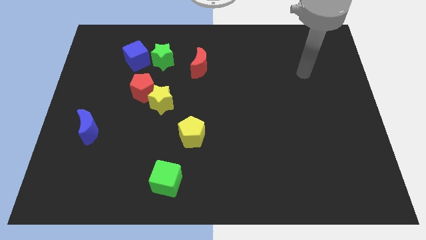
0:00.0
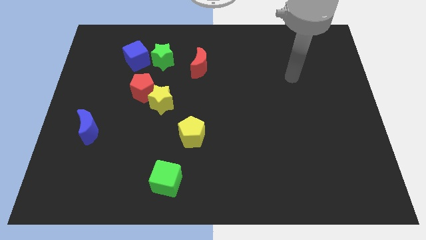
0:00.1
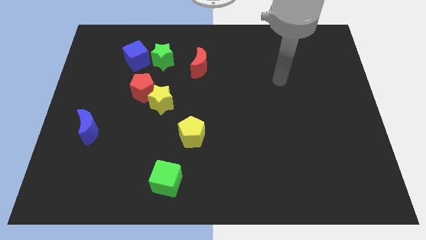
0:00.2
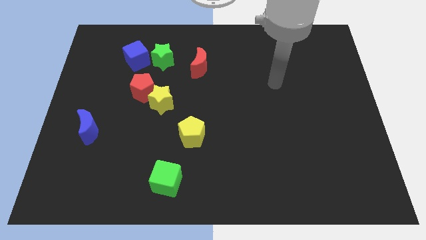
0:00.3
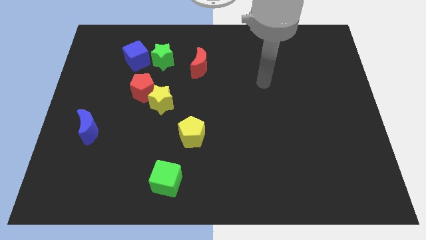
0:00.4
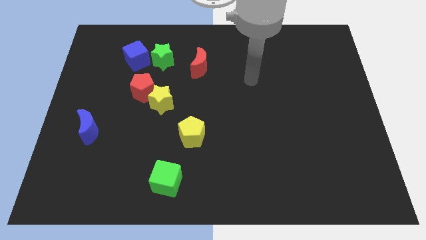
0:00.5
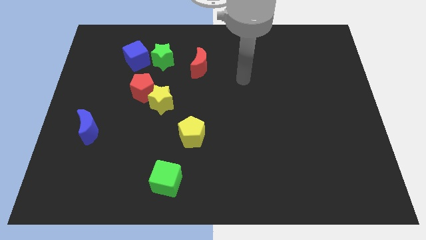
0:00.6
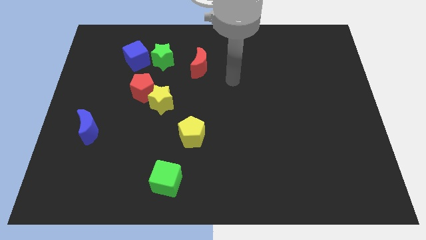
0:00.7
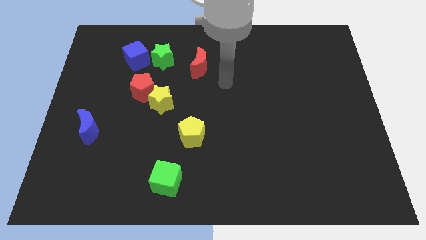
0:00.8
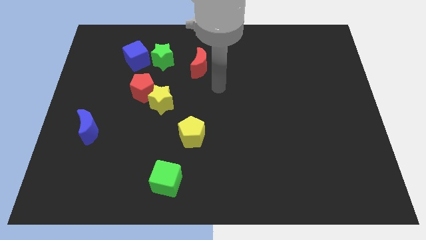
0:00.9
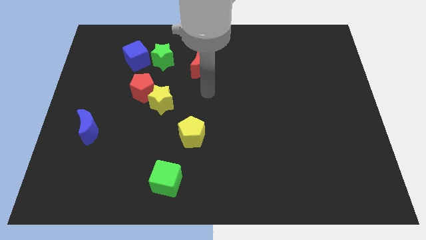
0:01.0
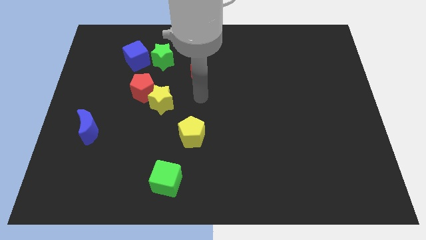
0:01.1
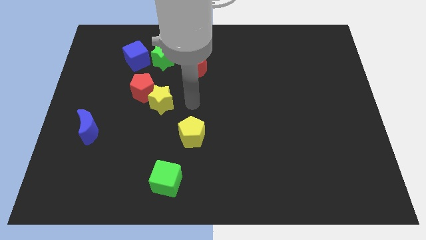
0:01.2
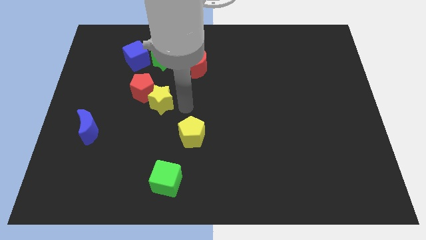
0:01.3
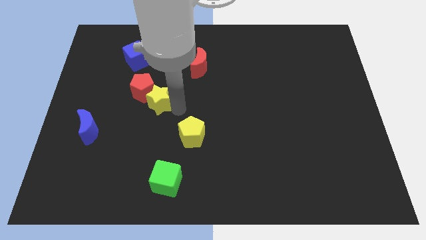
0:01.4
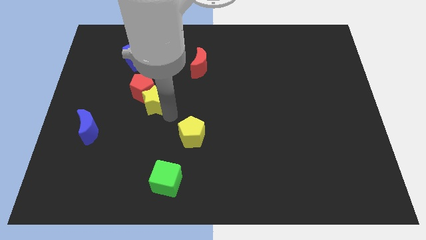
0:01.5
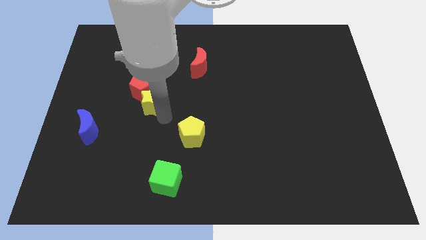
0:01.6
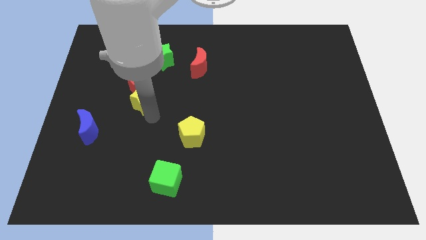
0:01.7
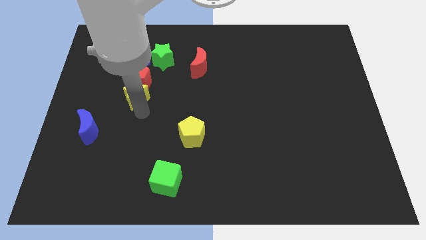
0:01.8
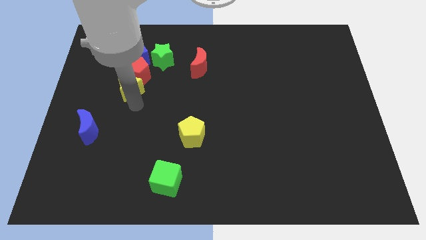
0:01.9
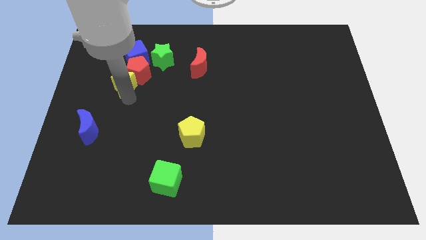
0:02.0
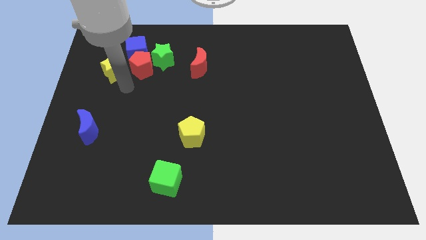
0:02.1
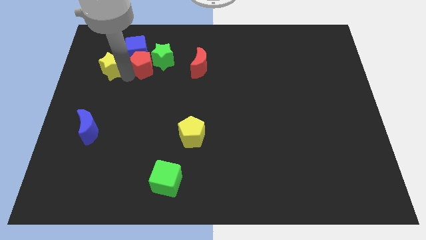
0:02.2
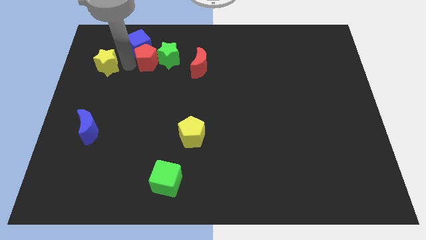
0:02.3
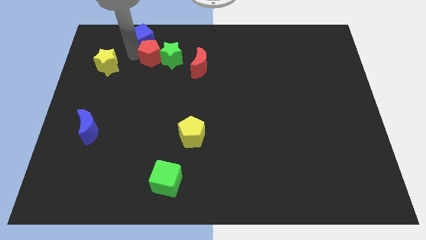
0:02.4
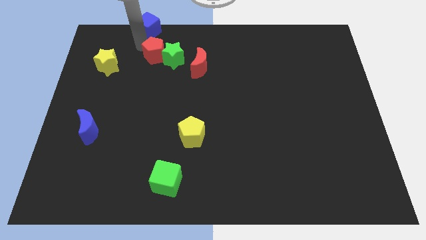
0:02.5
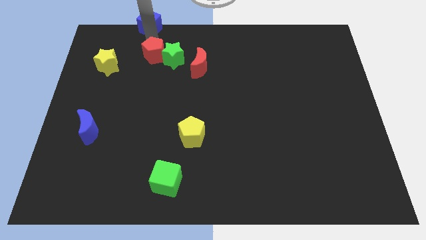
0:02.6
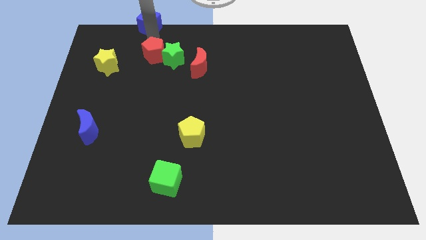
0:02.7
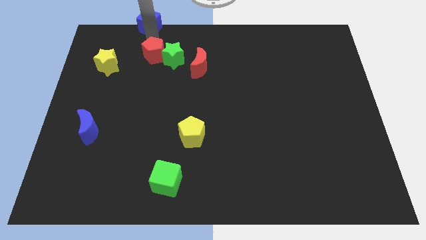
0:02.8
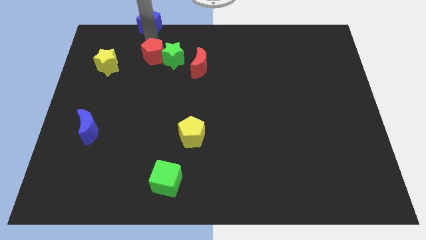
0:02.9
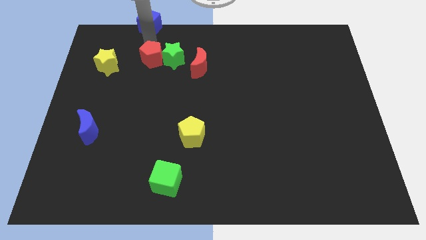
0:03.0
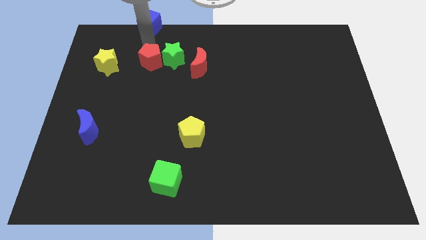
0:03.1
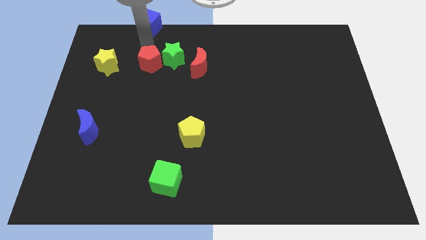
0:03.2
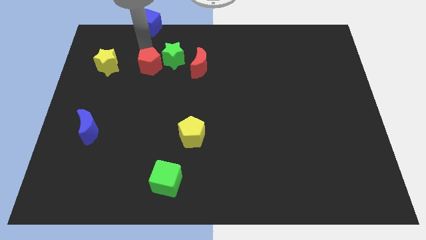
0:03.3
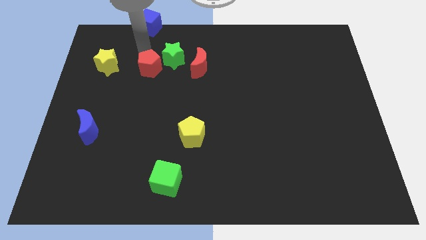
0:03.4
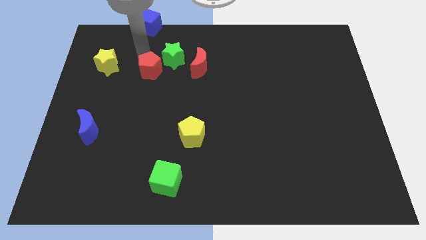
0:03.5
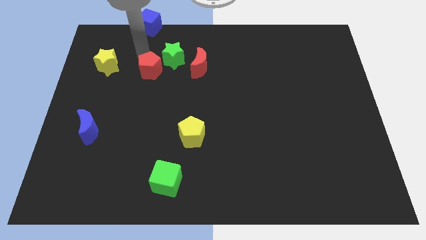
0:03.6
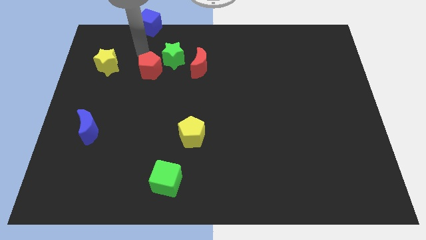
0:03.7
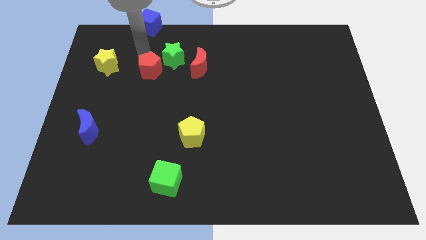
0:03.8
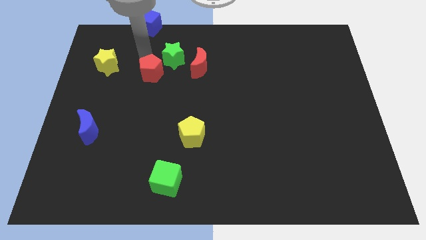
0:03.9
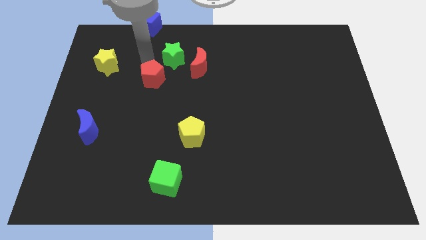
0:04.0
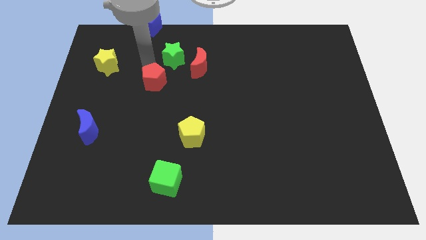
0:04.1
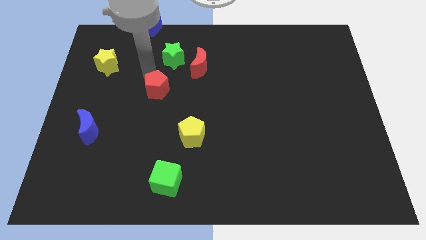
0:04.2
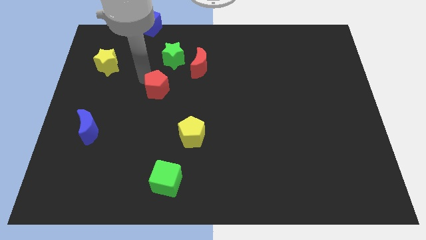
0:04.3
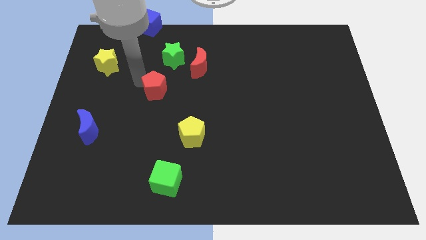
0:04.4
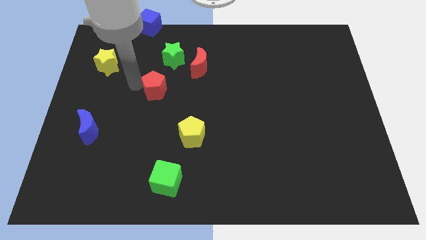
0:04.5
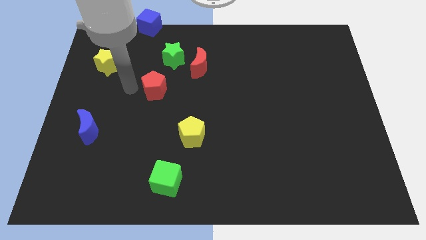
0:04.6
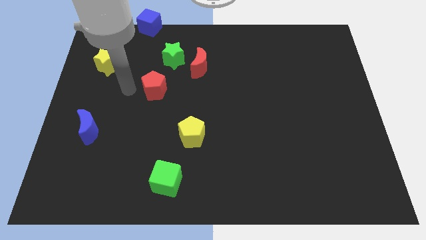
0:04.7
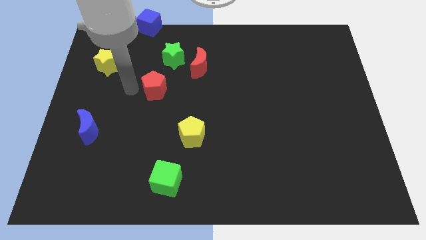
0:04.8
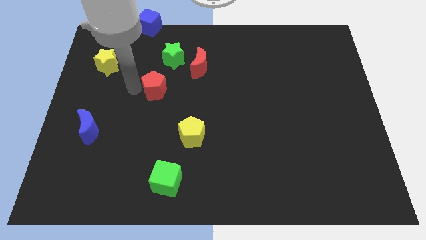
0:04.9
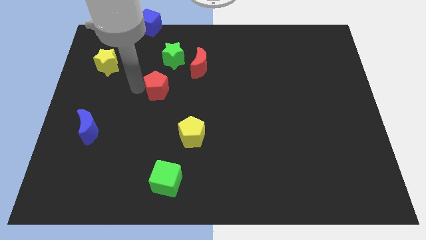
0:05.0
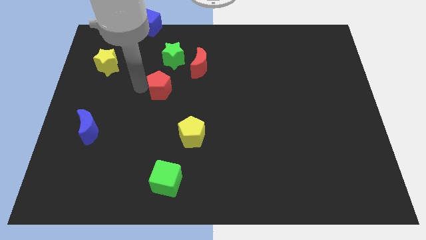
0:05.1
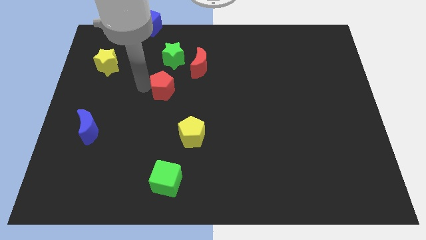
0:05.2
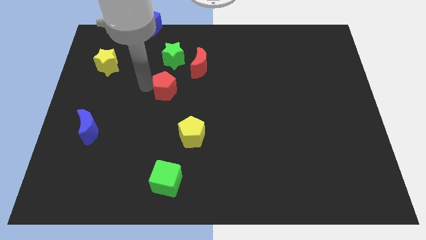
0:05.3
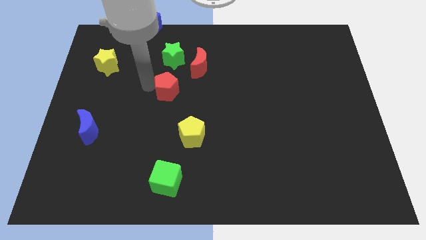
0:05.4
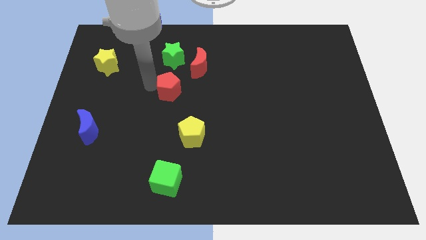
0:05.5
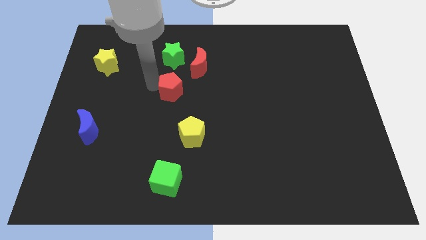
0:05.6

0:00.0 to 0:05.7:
slide the red pentagon to the right a bit

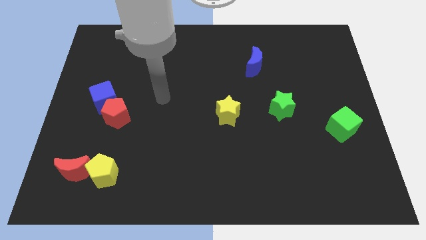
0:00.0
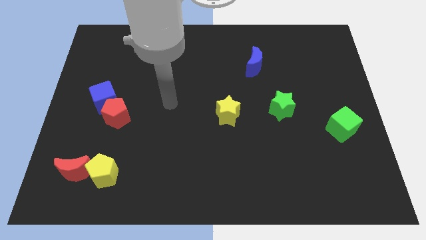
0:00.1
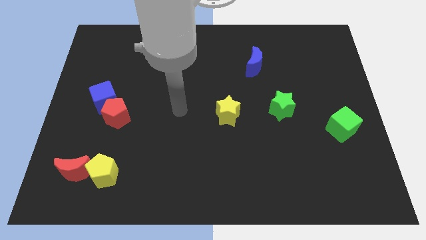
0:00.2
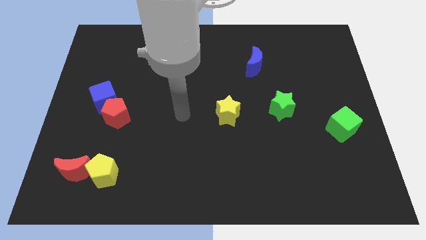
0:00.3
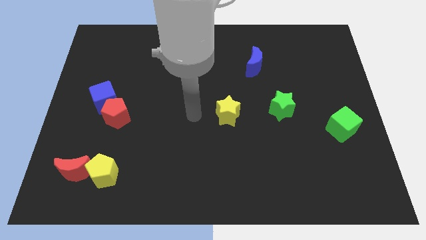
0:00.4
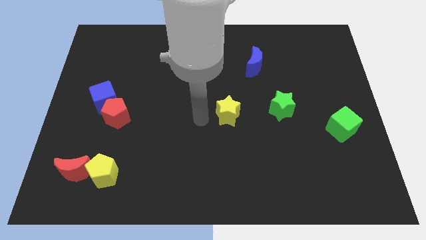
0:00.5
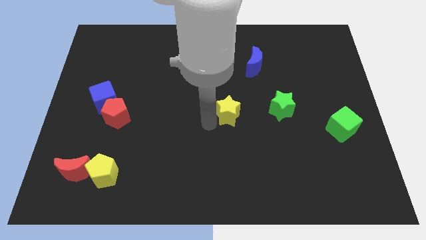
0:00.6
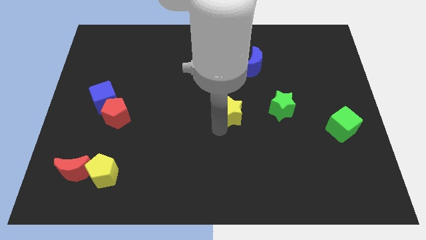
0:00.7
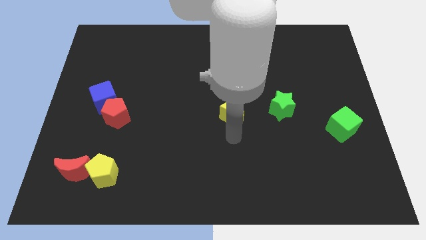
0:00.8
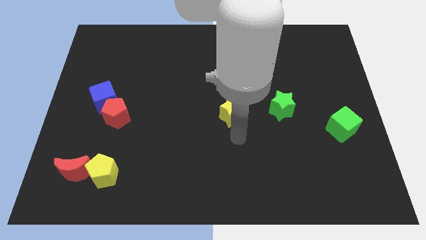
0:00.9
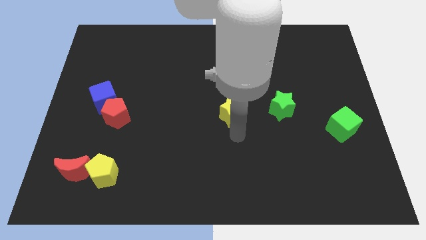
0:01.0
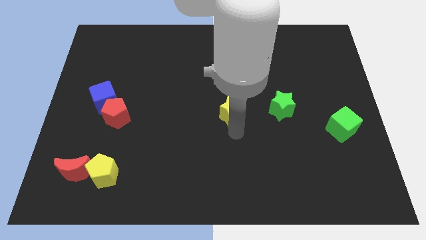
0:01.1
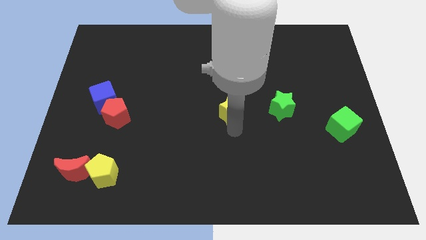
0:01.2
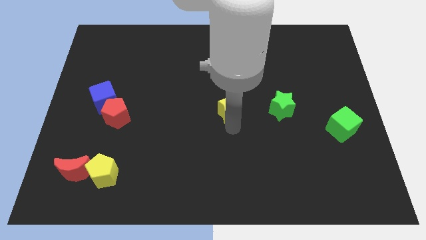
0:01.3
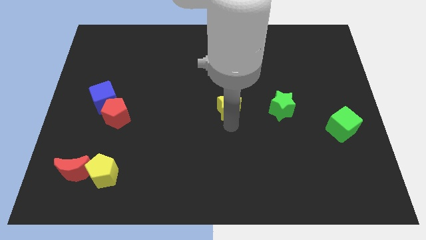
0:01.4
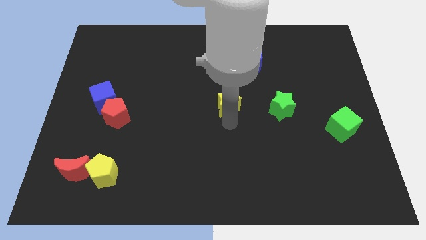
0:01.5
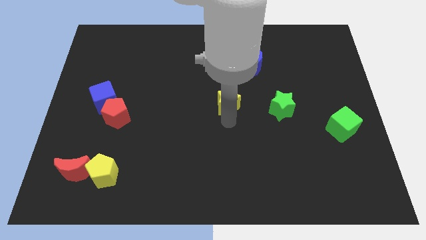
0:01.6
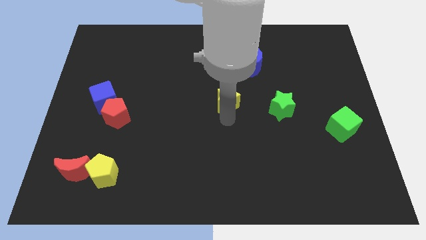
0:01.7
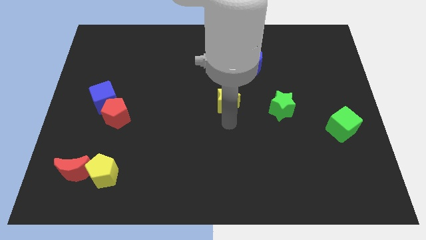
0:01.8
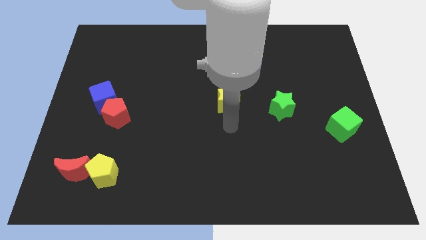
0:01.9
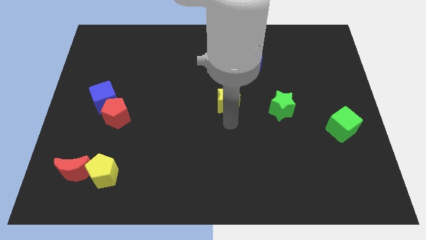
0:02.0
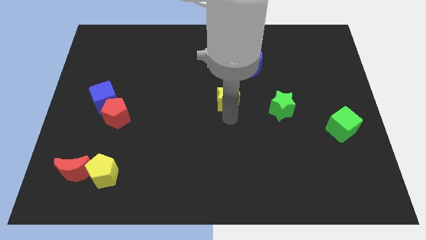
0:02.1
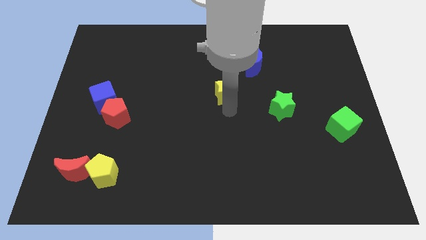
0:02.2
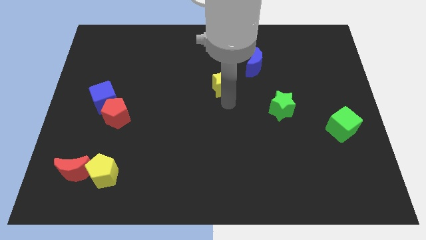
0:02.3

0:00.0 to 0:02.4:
slightly push the yellow star up
